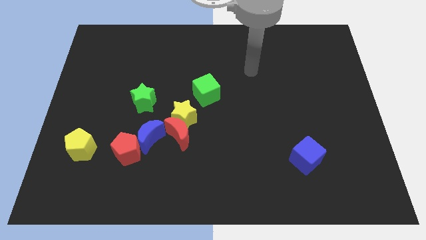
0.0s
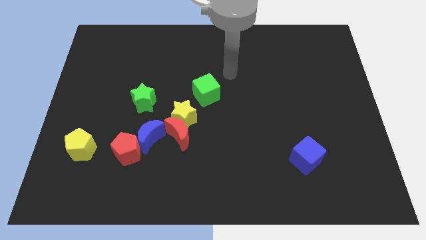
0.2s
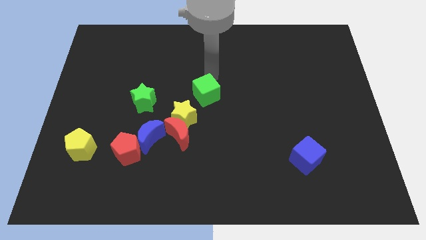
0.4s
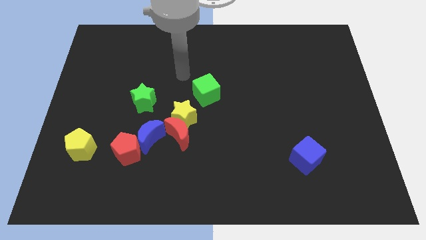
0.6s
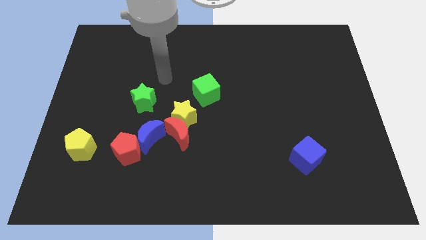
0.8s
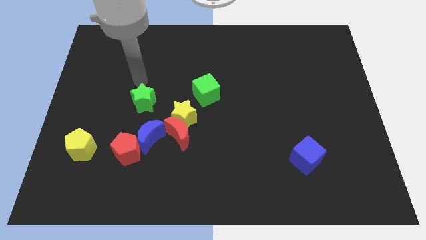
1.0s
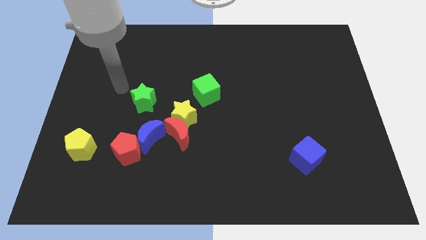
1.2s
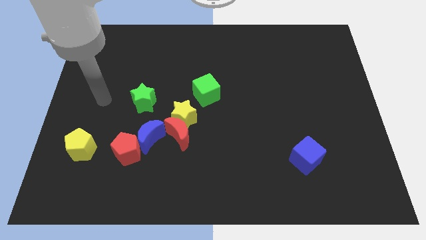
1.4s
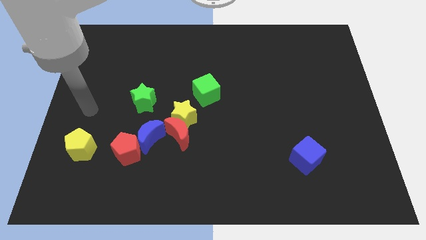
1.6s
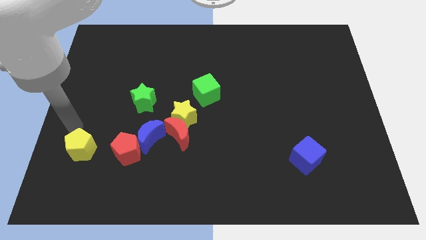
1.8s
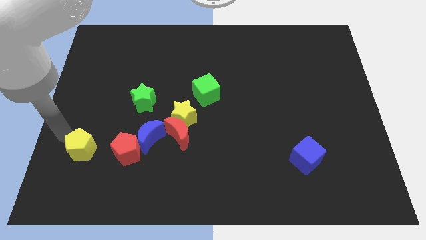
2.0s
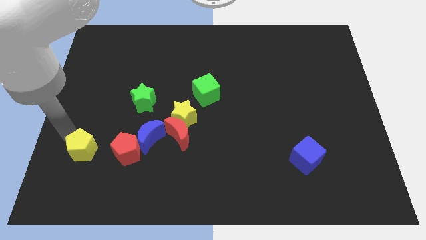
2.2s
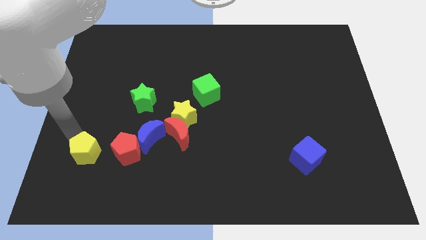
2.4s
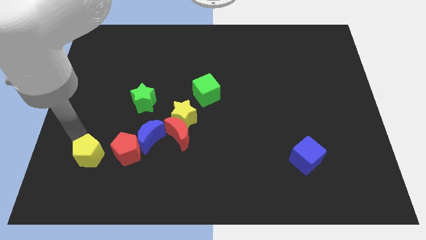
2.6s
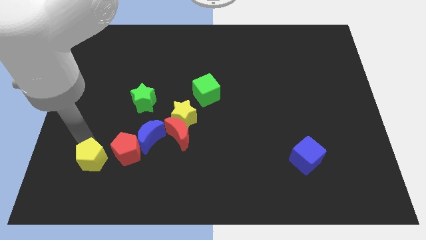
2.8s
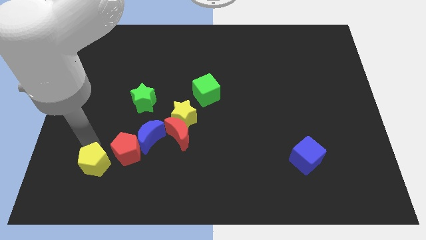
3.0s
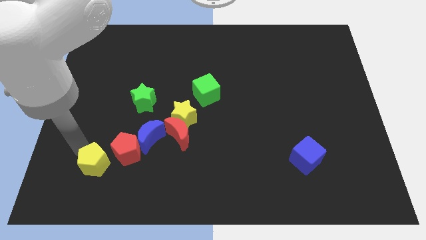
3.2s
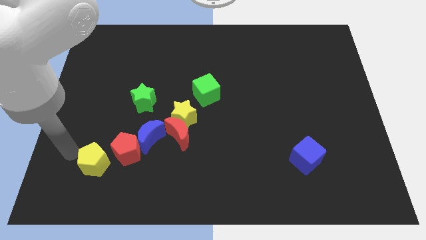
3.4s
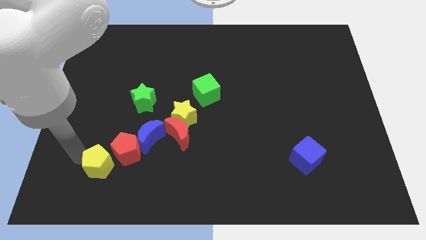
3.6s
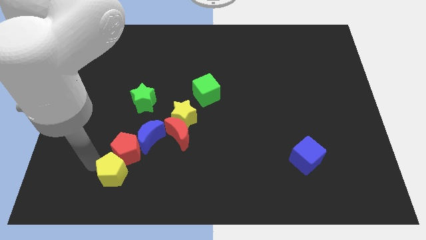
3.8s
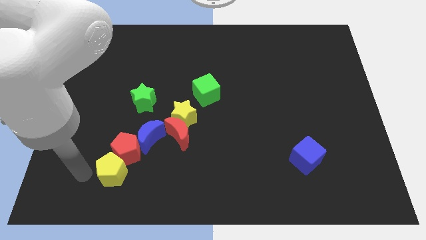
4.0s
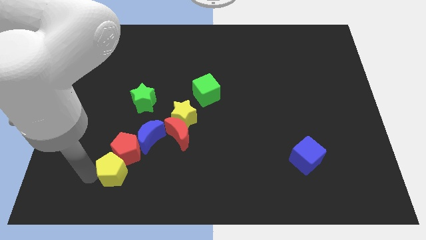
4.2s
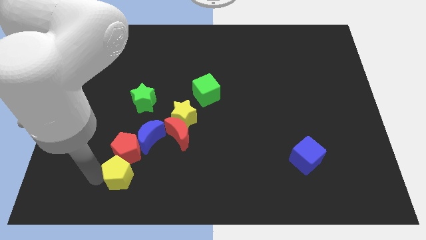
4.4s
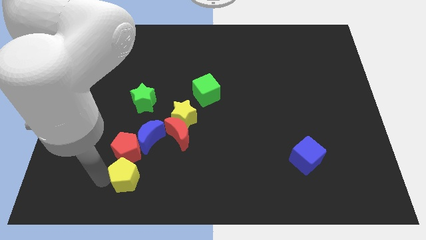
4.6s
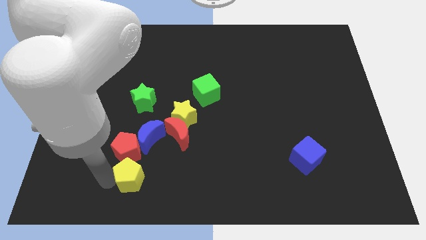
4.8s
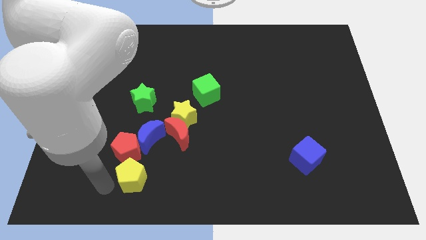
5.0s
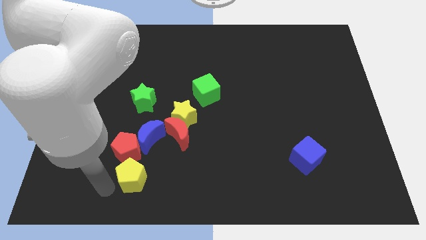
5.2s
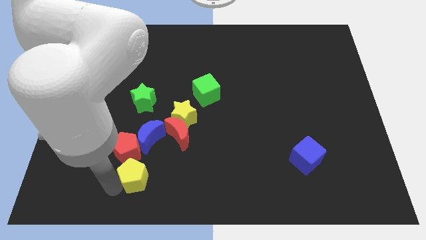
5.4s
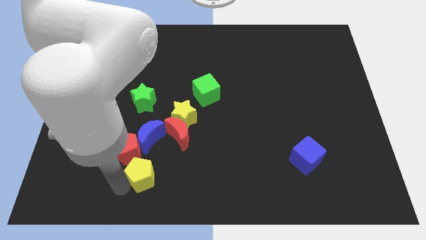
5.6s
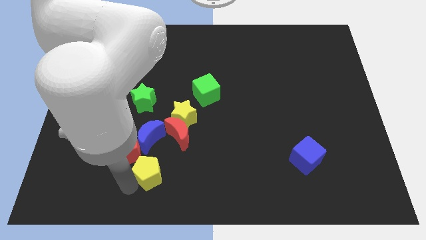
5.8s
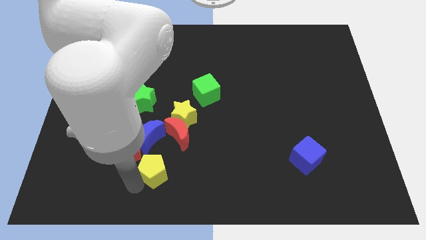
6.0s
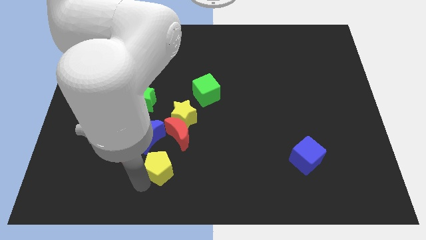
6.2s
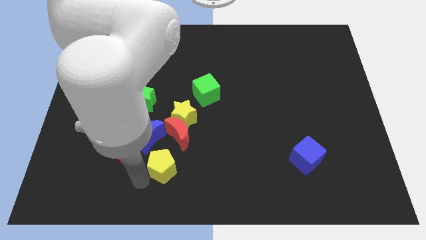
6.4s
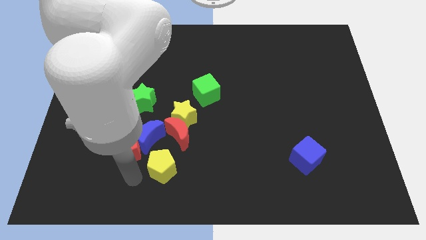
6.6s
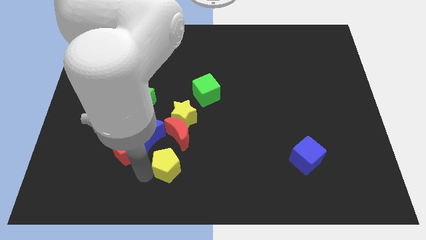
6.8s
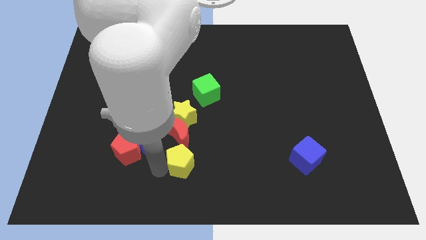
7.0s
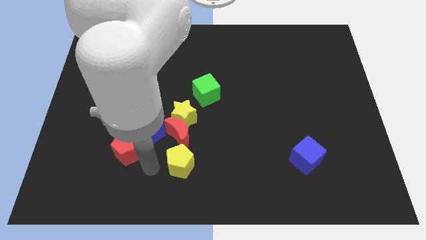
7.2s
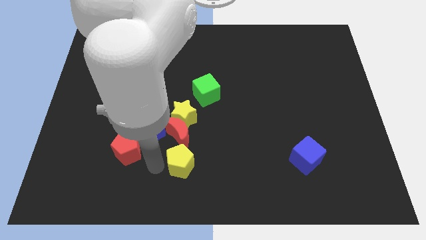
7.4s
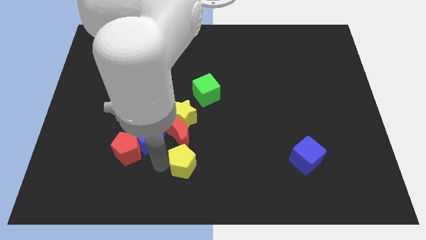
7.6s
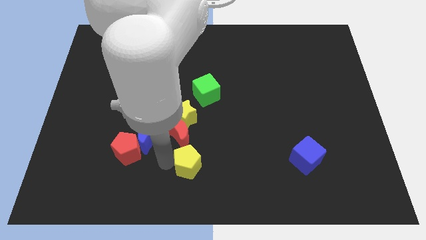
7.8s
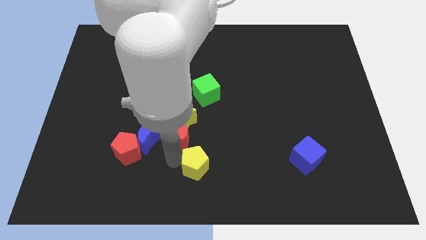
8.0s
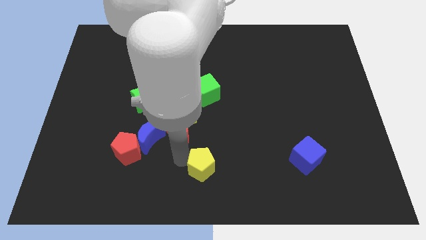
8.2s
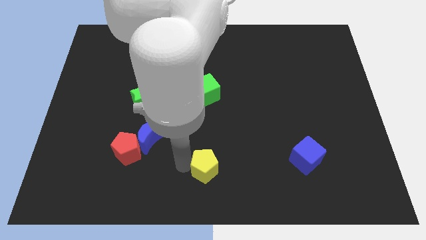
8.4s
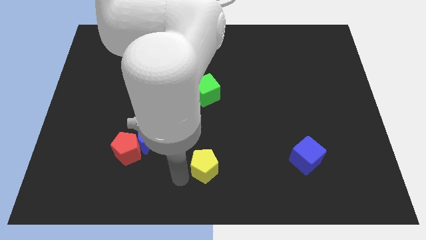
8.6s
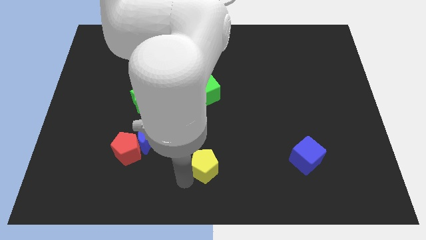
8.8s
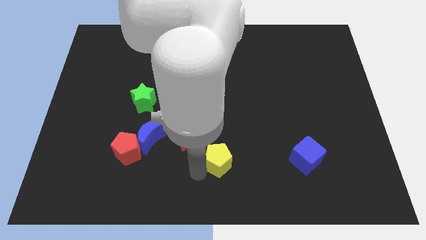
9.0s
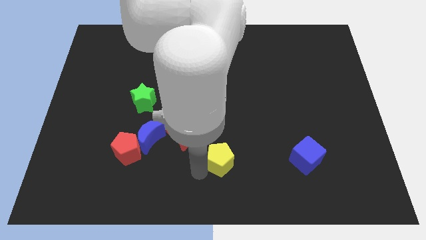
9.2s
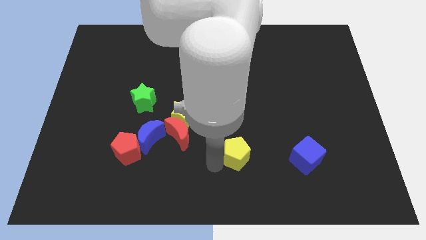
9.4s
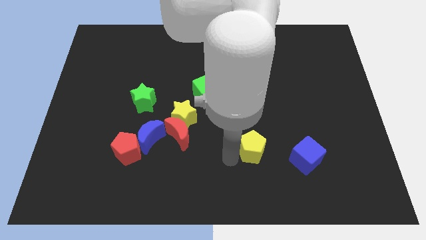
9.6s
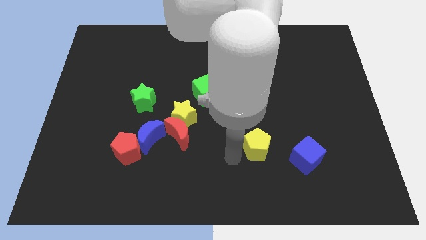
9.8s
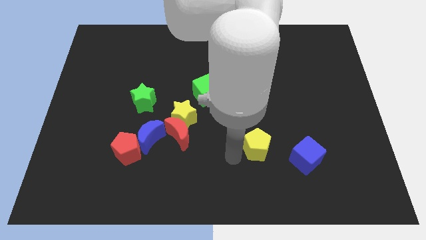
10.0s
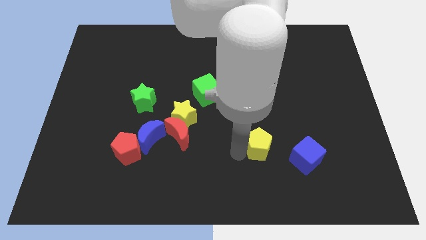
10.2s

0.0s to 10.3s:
push the yellow pentagon to the top left of the blue cube

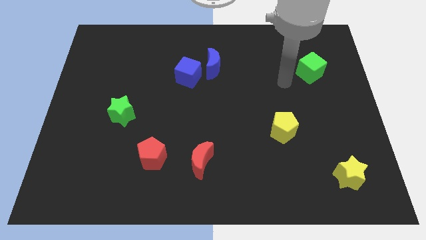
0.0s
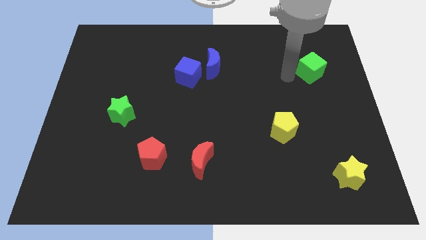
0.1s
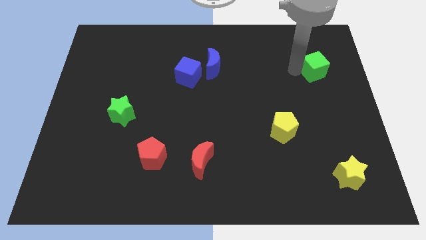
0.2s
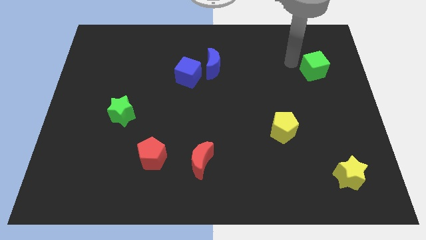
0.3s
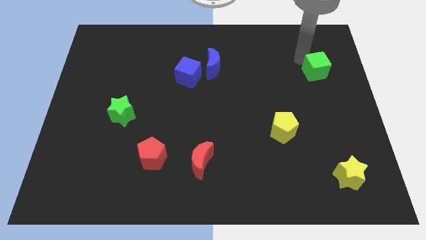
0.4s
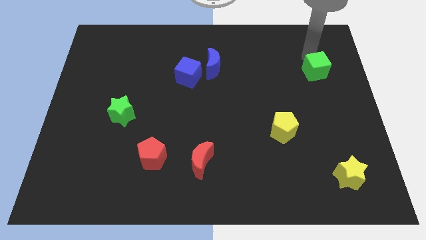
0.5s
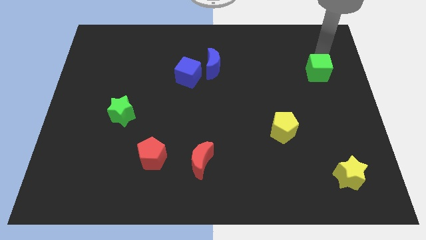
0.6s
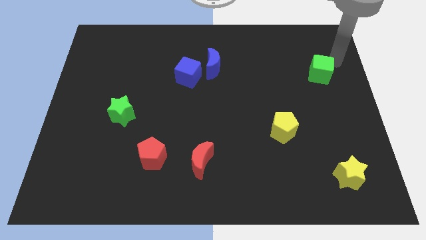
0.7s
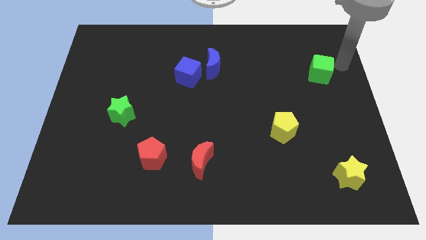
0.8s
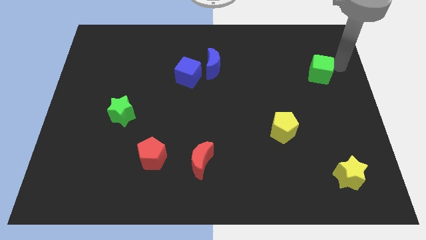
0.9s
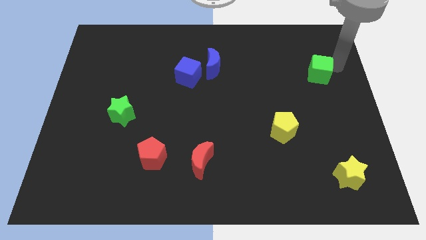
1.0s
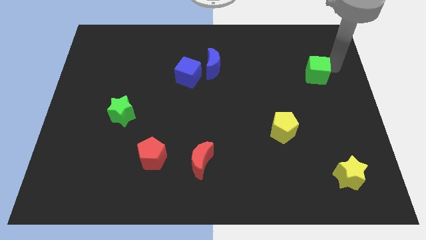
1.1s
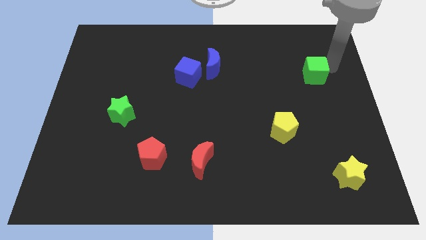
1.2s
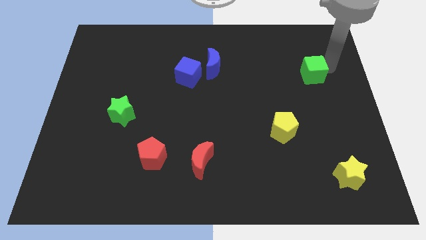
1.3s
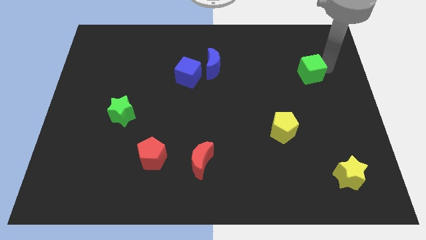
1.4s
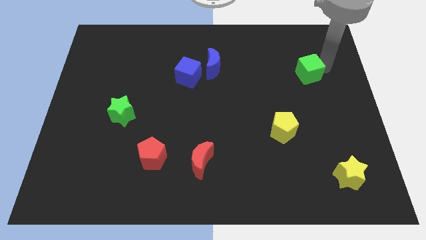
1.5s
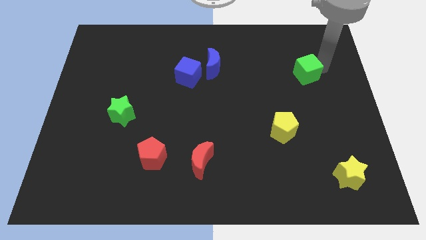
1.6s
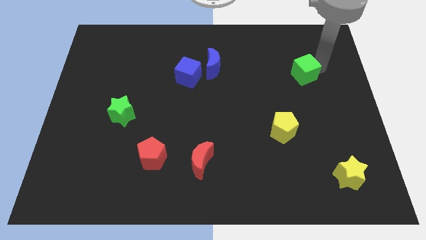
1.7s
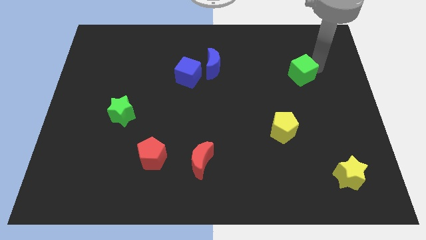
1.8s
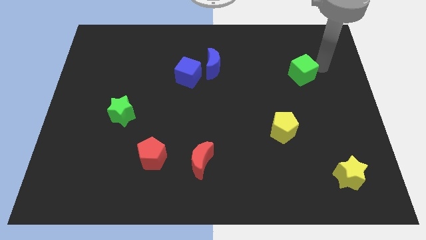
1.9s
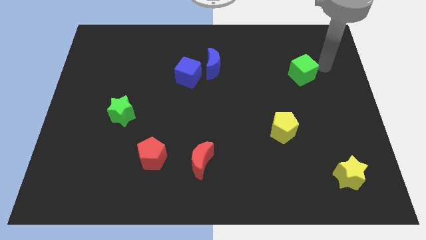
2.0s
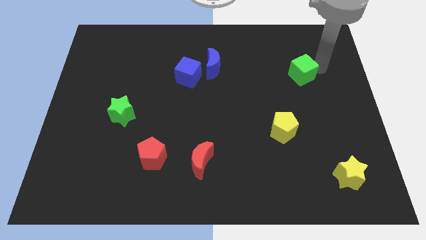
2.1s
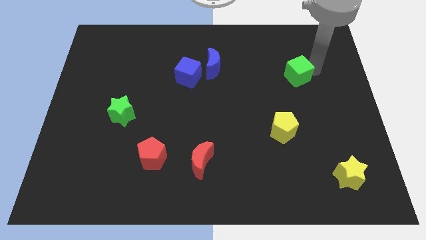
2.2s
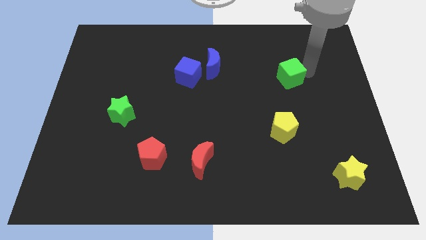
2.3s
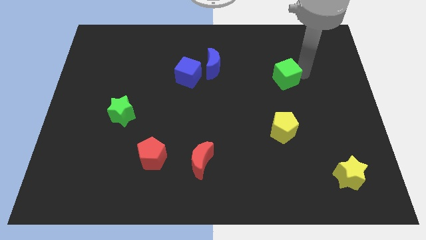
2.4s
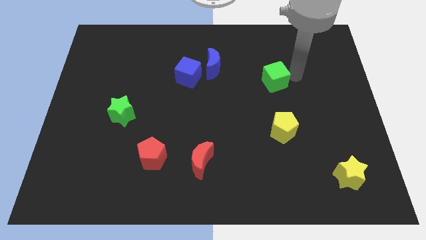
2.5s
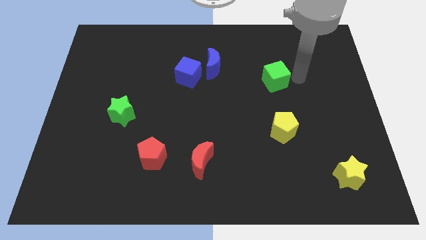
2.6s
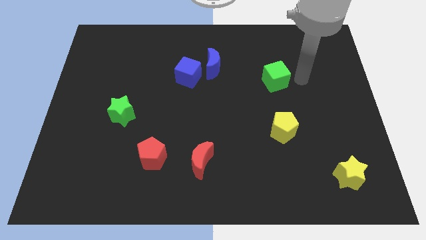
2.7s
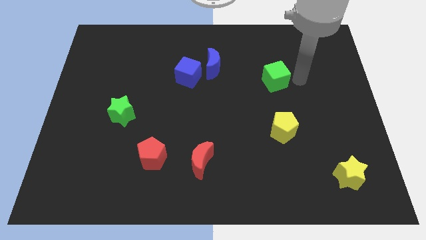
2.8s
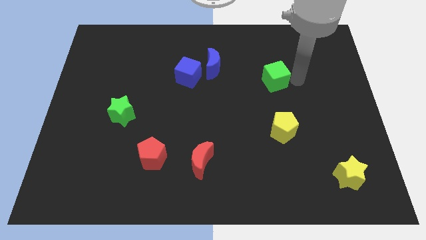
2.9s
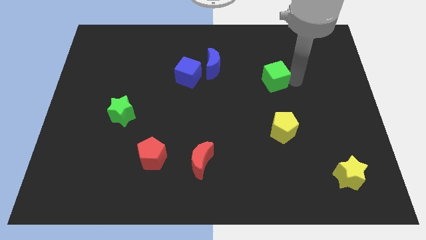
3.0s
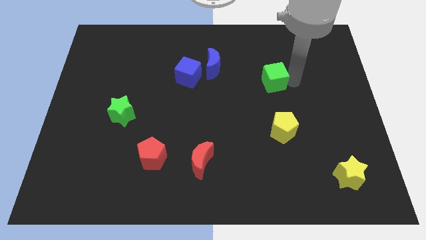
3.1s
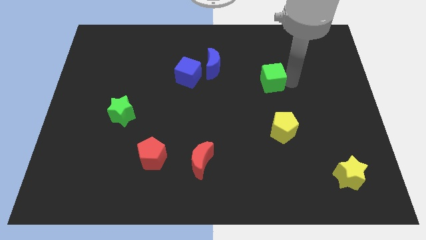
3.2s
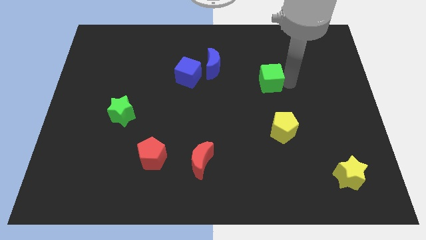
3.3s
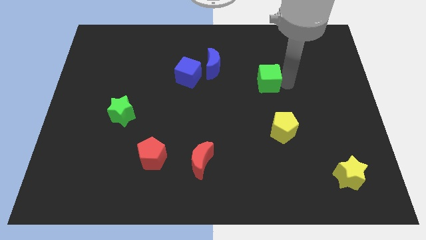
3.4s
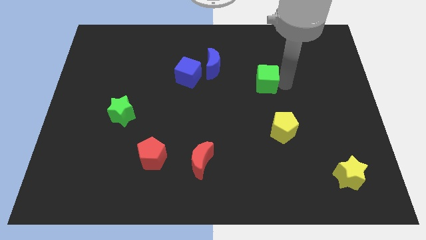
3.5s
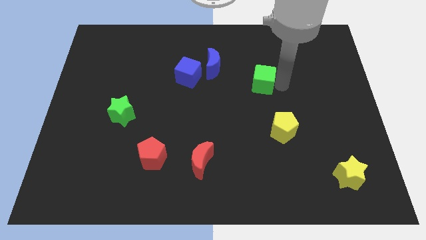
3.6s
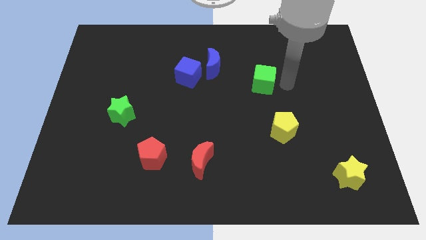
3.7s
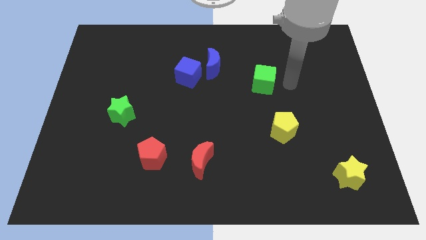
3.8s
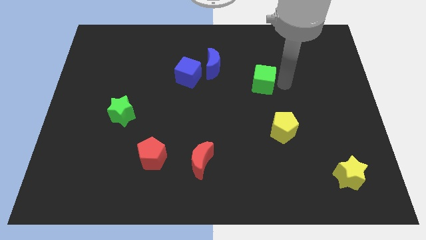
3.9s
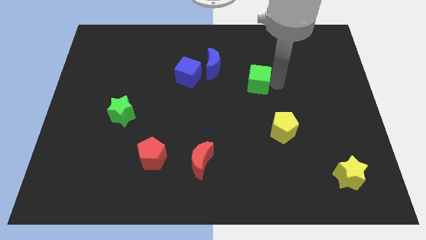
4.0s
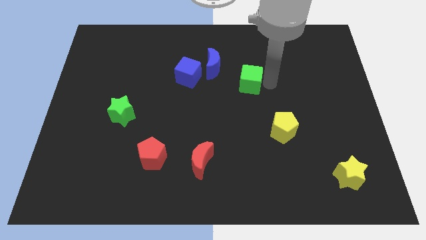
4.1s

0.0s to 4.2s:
put the green cube diagonally down and to the right of the blue moon
